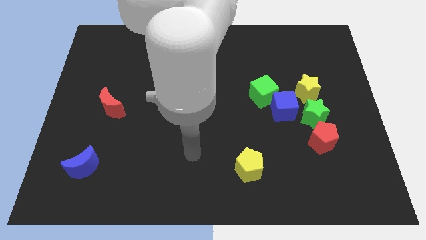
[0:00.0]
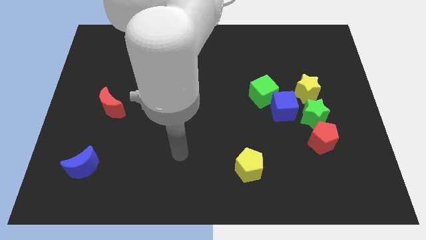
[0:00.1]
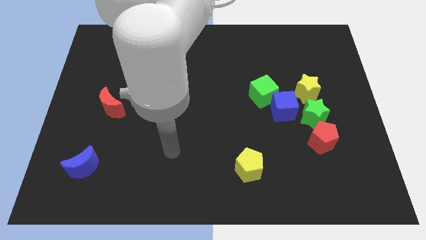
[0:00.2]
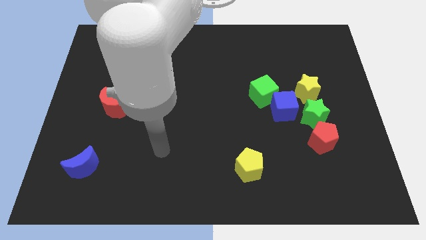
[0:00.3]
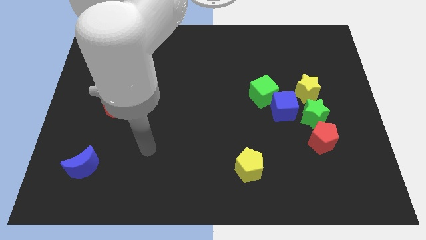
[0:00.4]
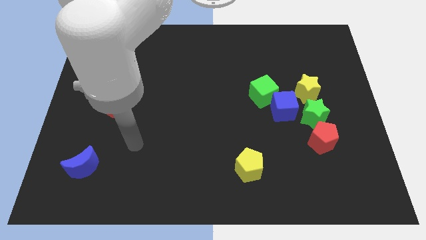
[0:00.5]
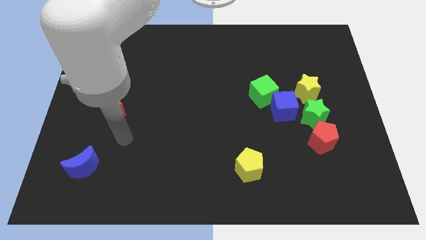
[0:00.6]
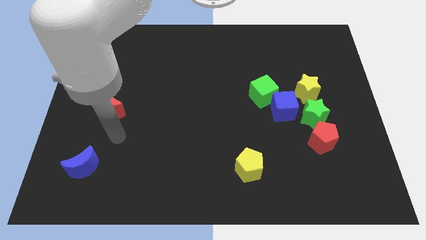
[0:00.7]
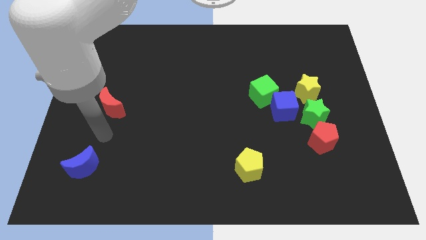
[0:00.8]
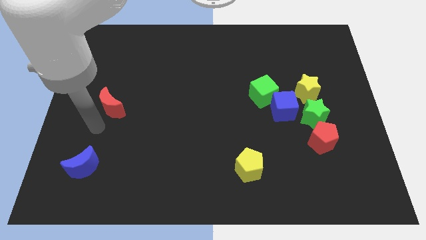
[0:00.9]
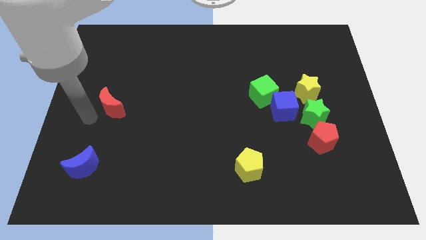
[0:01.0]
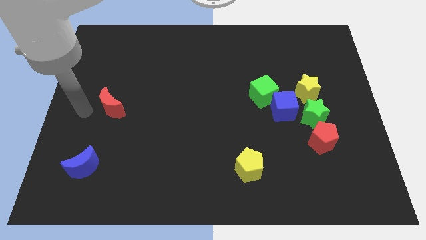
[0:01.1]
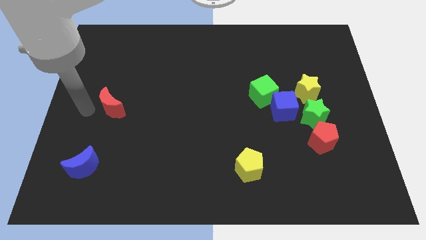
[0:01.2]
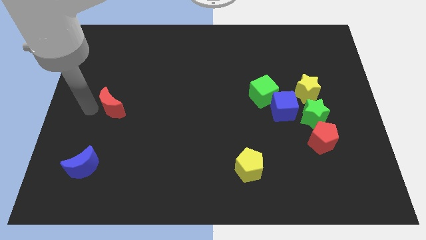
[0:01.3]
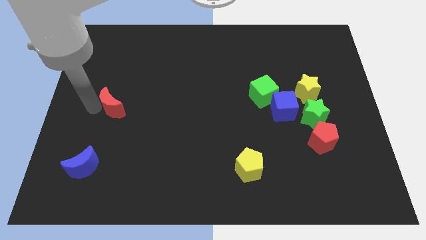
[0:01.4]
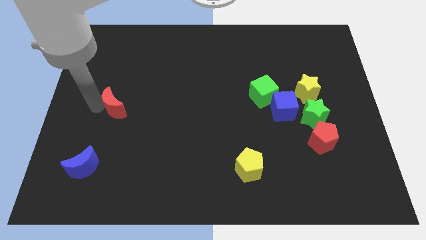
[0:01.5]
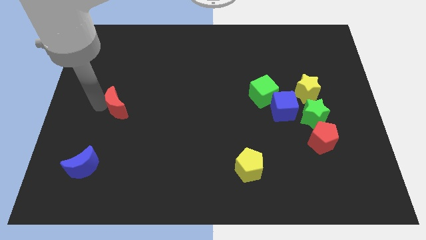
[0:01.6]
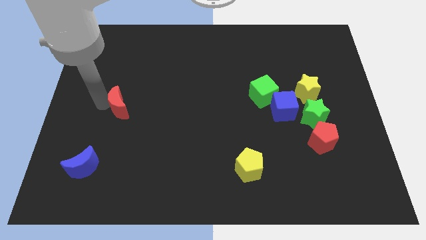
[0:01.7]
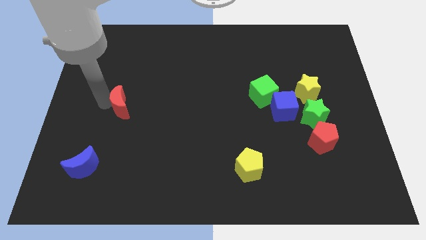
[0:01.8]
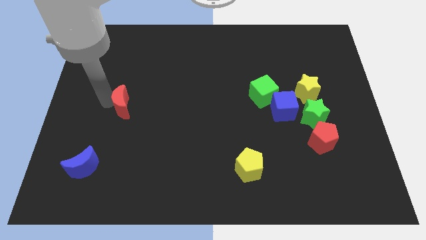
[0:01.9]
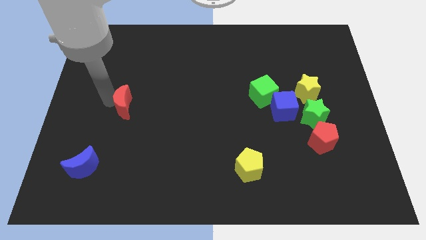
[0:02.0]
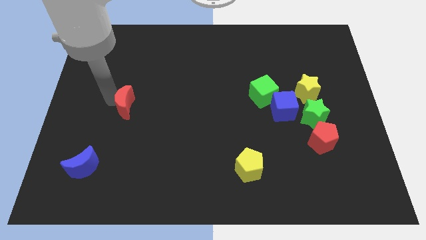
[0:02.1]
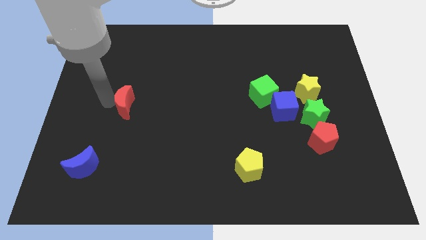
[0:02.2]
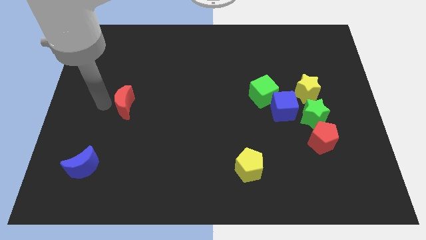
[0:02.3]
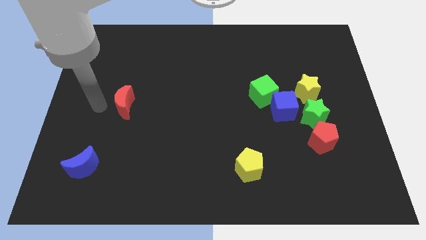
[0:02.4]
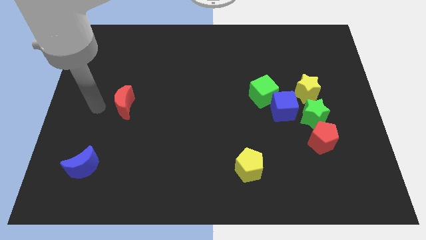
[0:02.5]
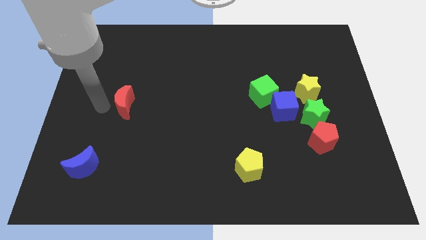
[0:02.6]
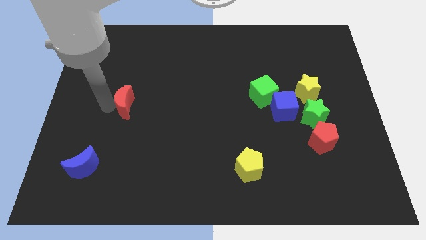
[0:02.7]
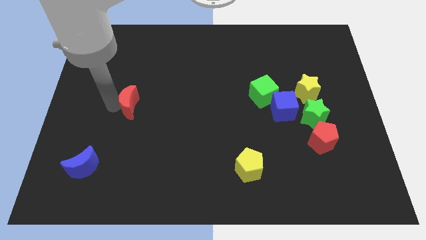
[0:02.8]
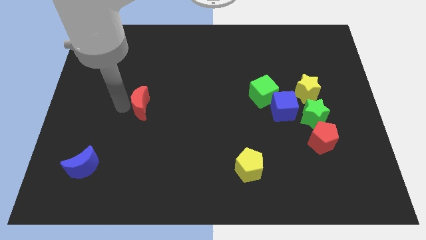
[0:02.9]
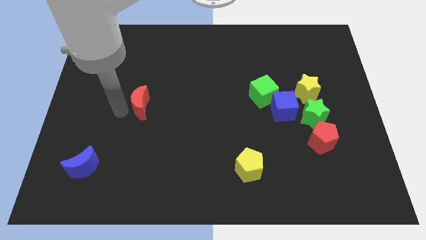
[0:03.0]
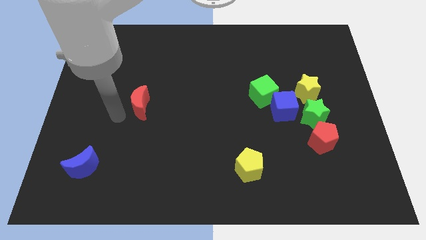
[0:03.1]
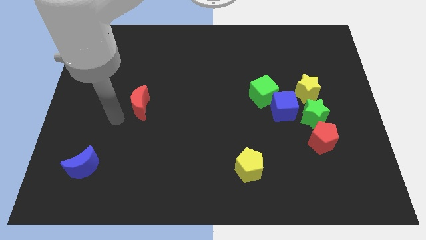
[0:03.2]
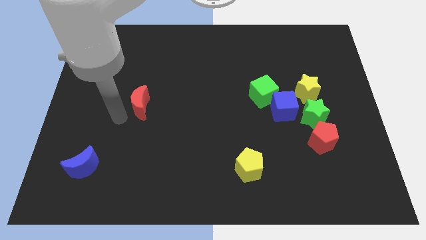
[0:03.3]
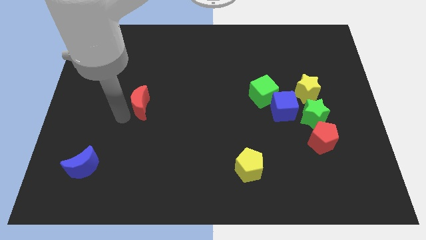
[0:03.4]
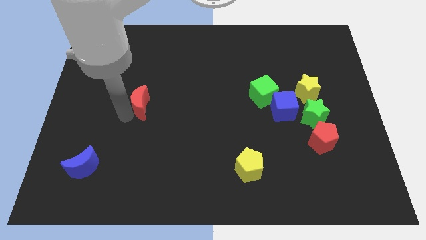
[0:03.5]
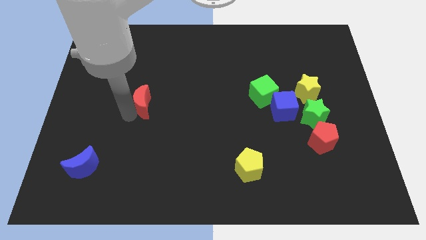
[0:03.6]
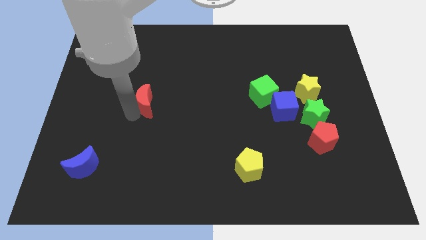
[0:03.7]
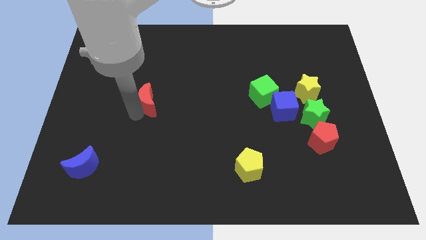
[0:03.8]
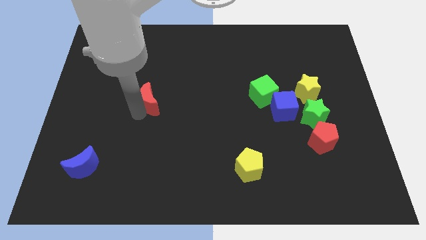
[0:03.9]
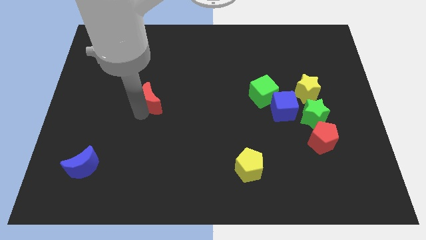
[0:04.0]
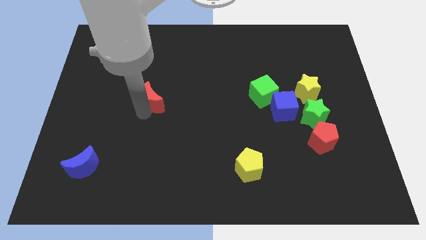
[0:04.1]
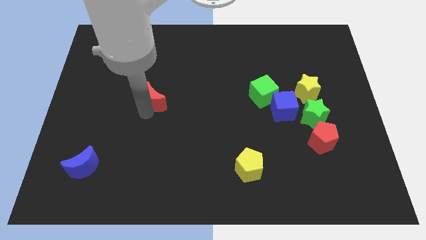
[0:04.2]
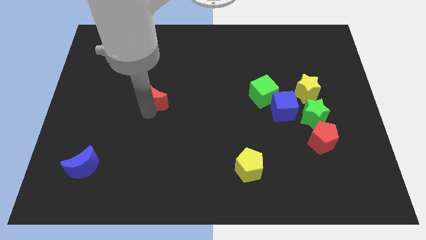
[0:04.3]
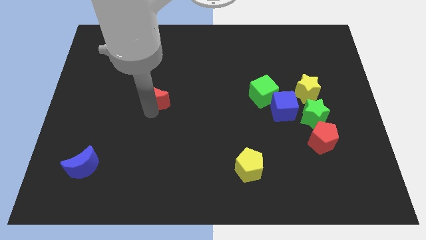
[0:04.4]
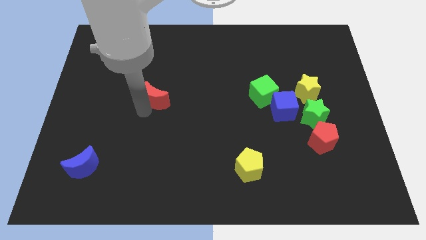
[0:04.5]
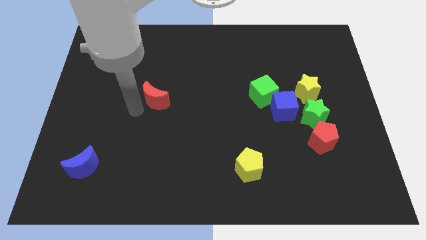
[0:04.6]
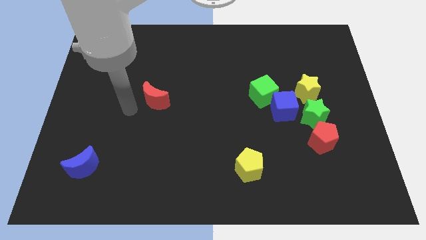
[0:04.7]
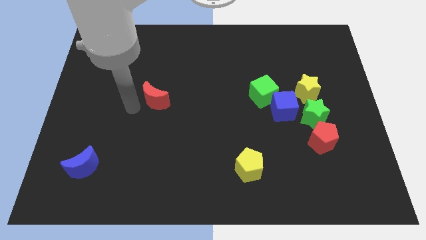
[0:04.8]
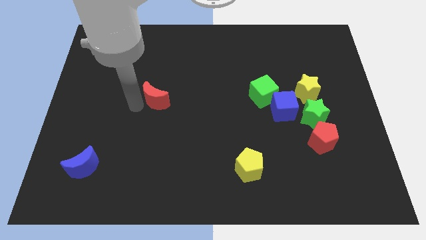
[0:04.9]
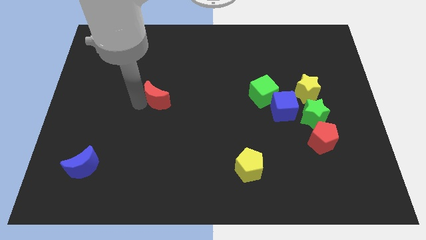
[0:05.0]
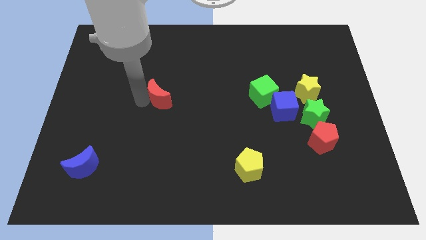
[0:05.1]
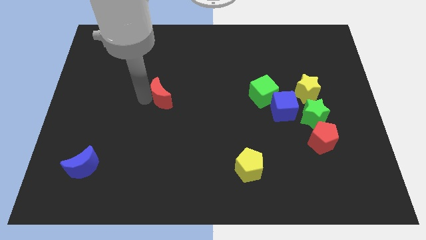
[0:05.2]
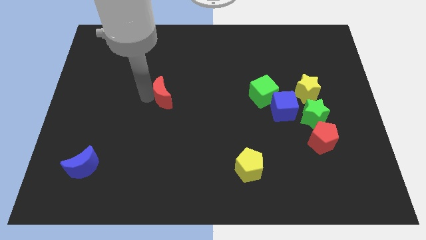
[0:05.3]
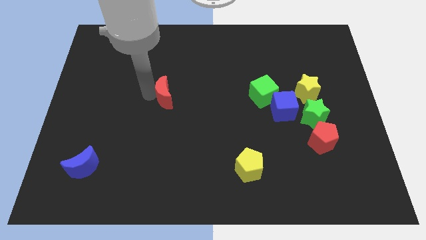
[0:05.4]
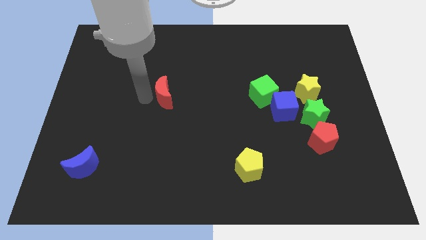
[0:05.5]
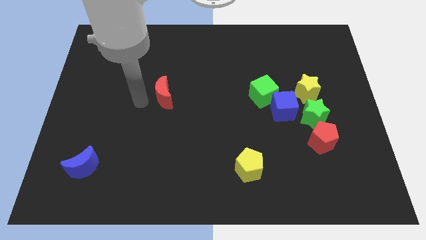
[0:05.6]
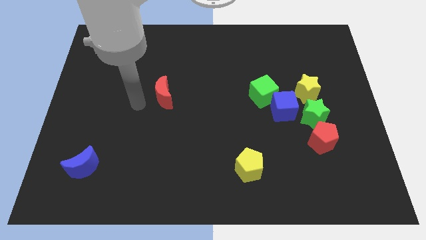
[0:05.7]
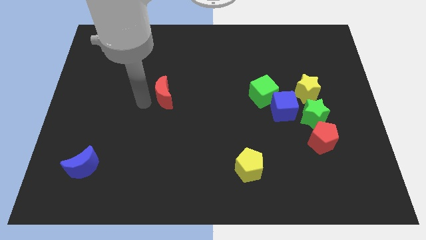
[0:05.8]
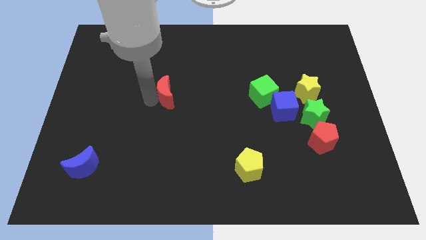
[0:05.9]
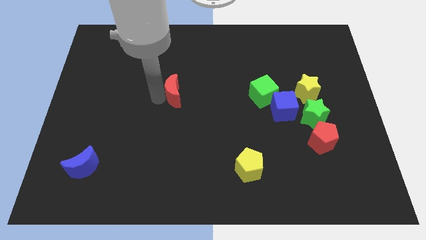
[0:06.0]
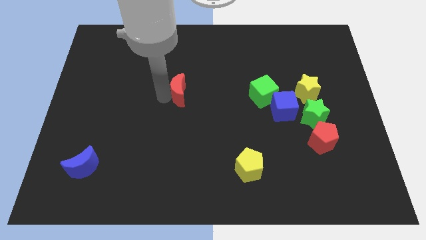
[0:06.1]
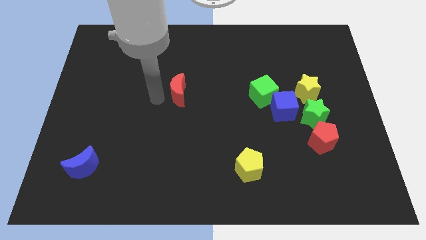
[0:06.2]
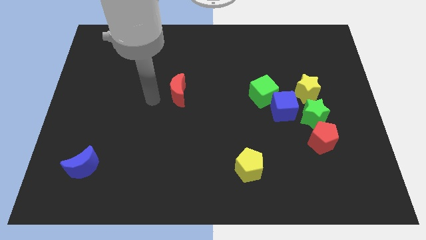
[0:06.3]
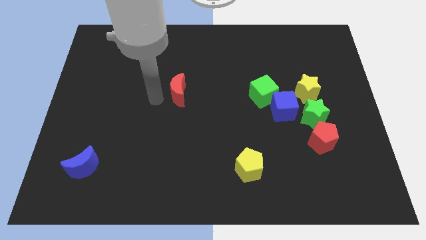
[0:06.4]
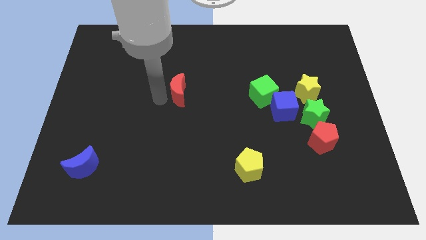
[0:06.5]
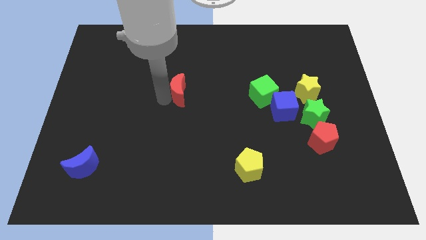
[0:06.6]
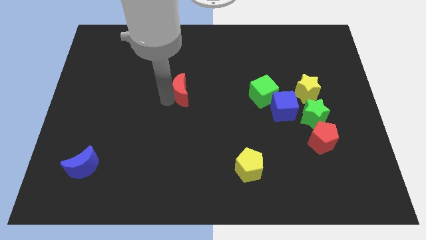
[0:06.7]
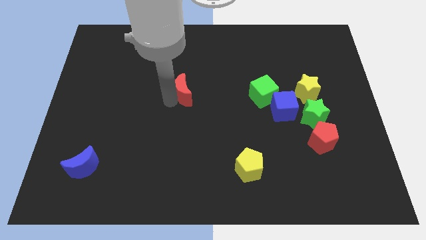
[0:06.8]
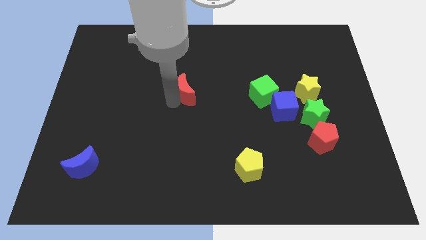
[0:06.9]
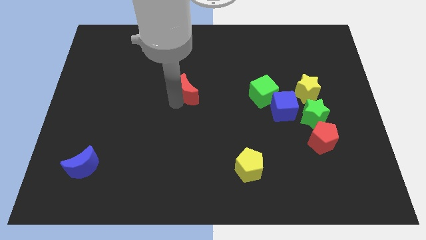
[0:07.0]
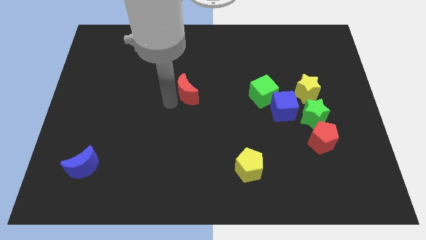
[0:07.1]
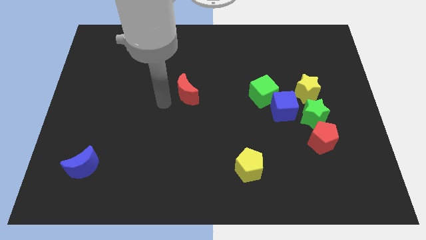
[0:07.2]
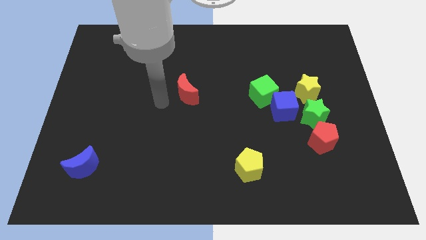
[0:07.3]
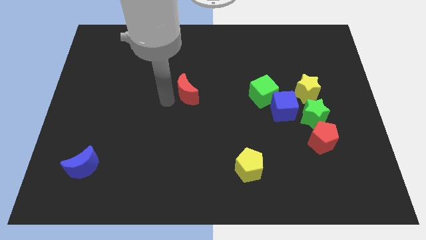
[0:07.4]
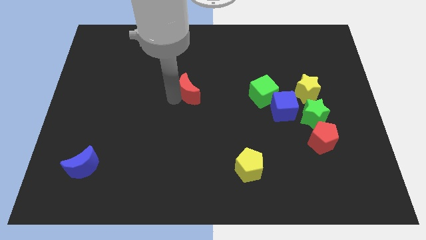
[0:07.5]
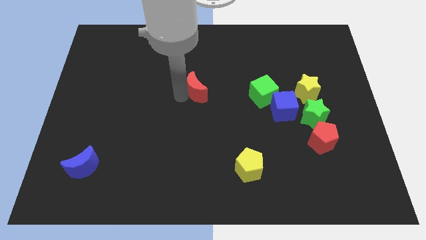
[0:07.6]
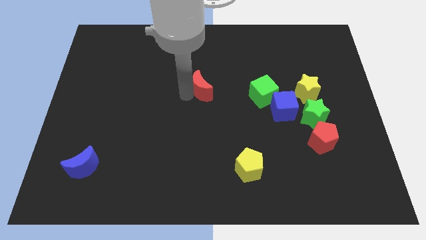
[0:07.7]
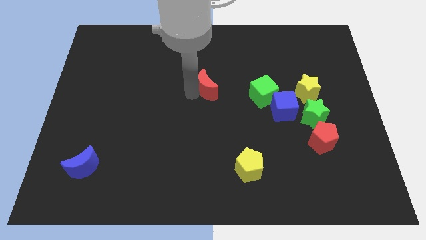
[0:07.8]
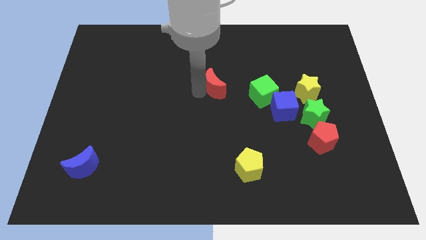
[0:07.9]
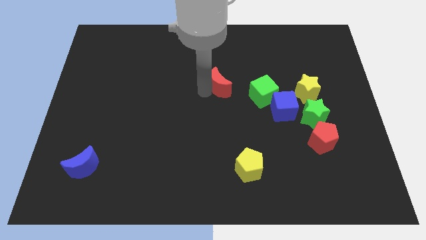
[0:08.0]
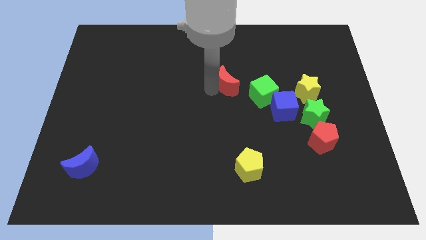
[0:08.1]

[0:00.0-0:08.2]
put the red moon to the top left side of the green cube

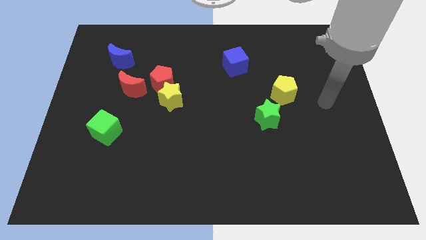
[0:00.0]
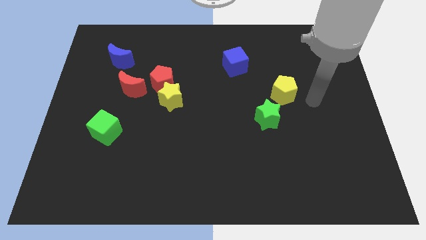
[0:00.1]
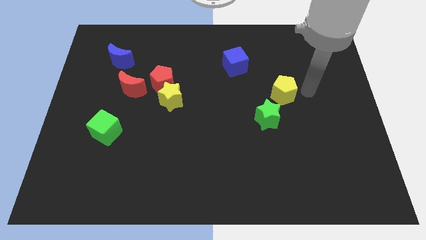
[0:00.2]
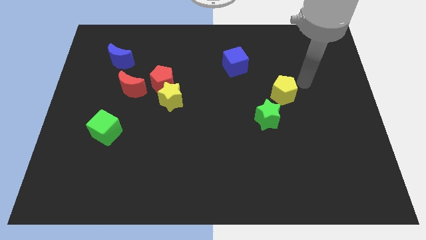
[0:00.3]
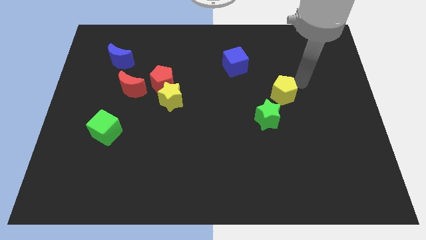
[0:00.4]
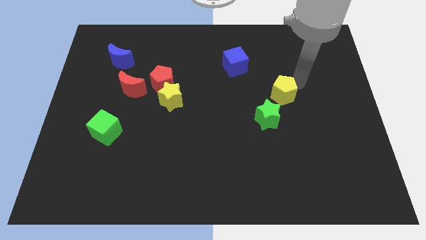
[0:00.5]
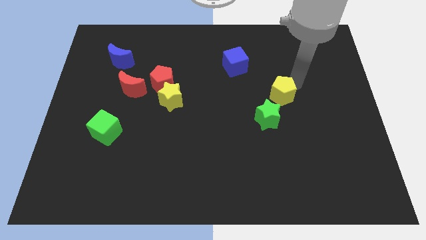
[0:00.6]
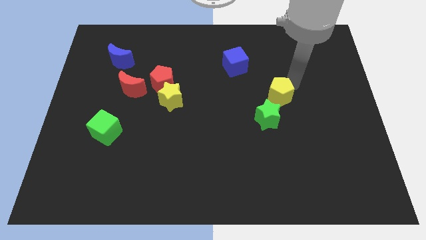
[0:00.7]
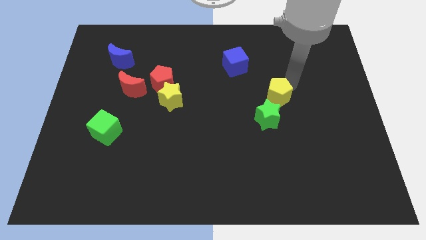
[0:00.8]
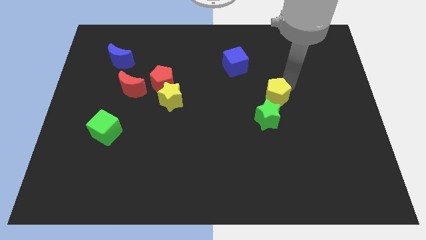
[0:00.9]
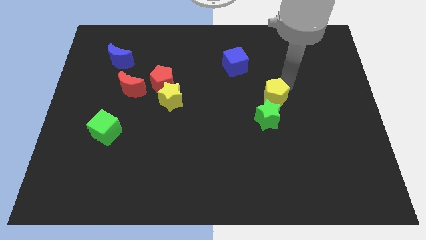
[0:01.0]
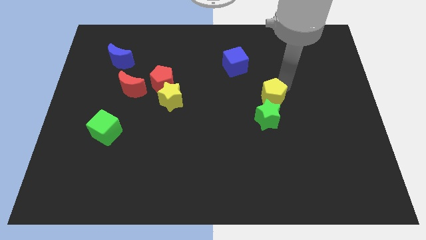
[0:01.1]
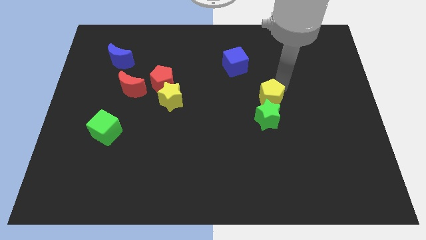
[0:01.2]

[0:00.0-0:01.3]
put the yellow pentagon diagonally up and to the left of the green star
